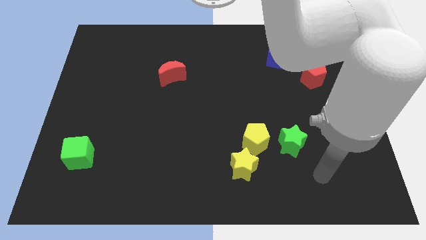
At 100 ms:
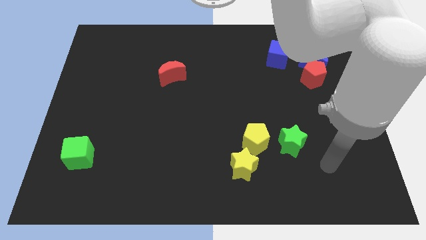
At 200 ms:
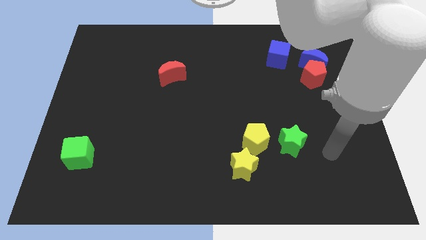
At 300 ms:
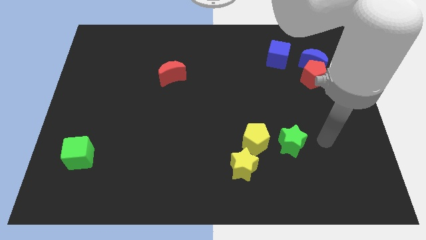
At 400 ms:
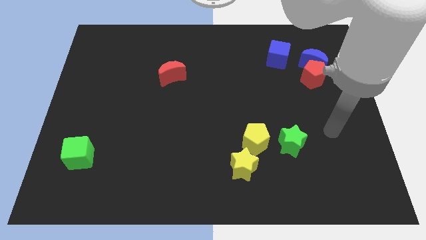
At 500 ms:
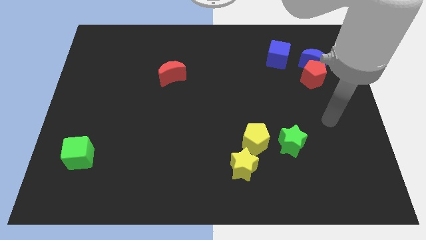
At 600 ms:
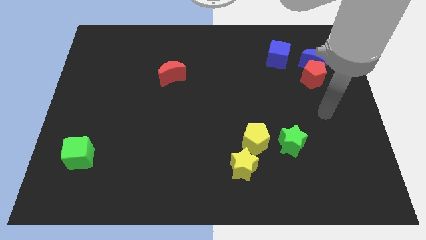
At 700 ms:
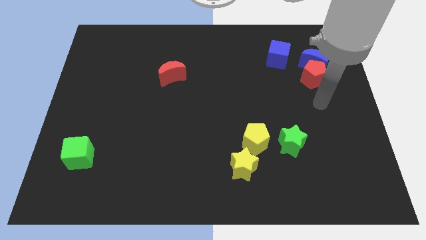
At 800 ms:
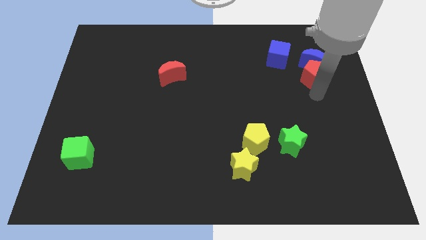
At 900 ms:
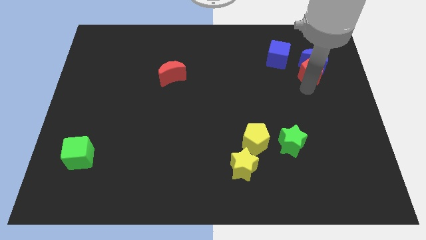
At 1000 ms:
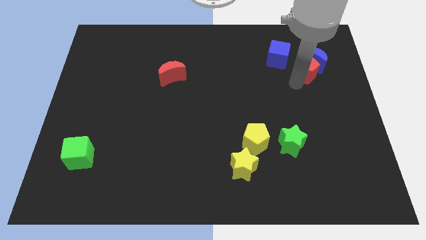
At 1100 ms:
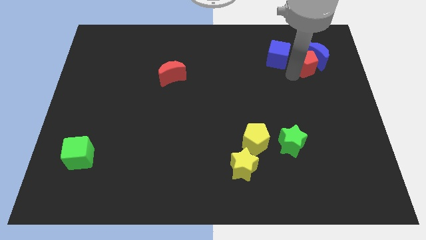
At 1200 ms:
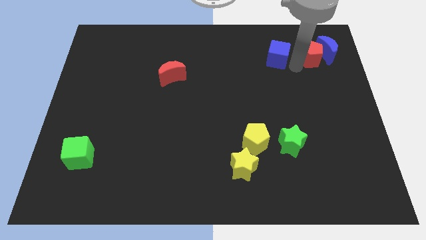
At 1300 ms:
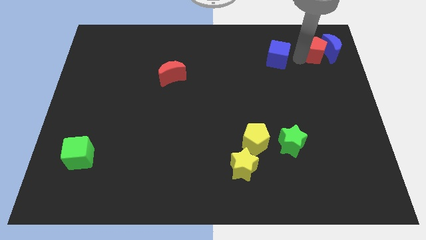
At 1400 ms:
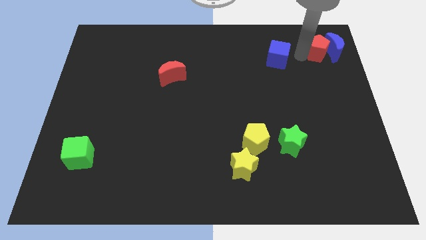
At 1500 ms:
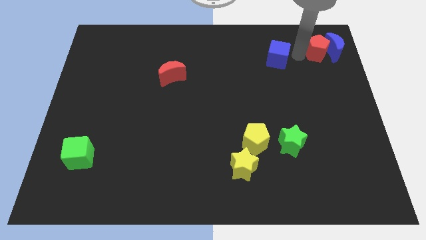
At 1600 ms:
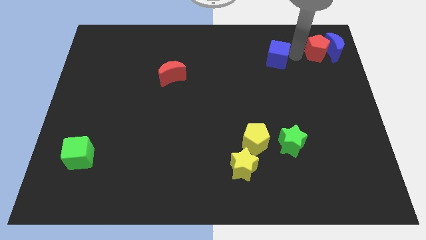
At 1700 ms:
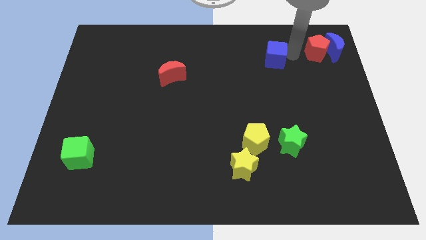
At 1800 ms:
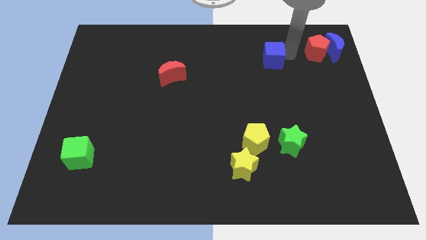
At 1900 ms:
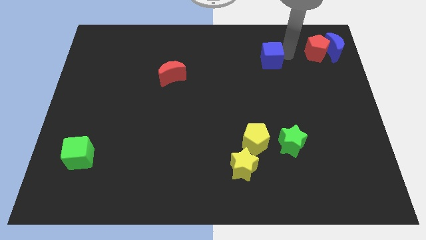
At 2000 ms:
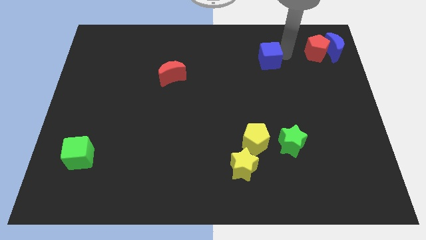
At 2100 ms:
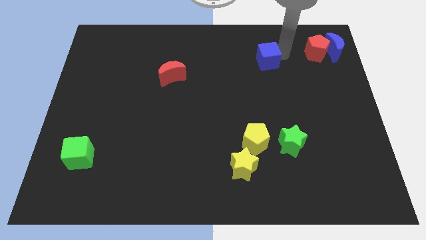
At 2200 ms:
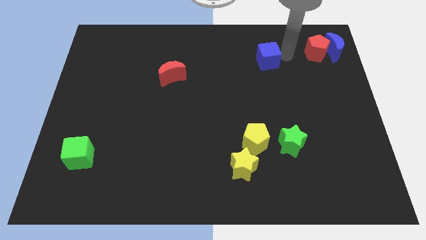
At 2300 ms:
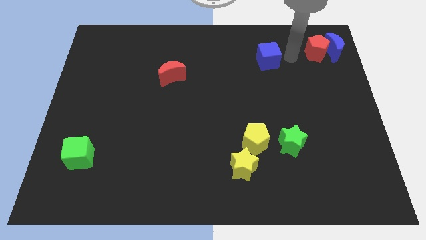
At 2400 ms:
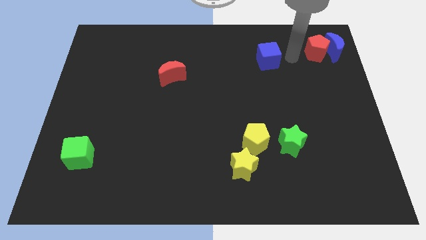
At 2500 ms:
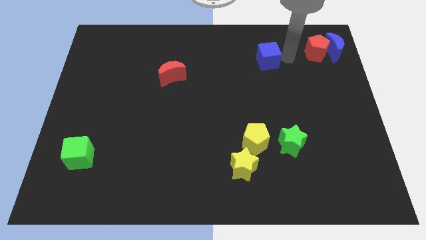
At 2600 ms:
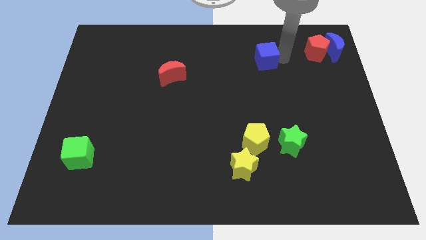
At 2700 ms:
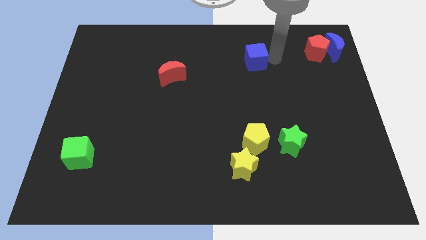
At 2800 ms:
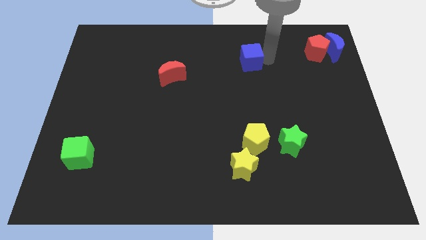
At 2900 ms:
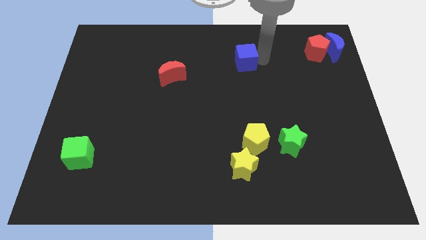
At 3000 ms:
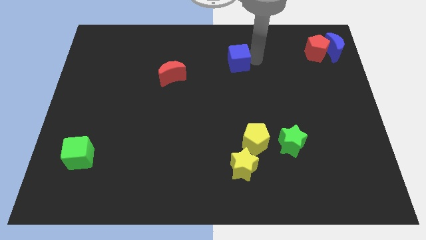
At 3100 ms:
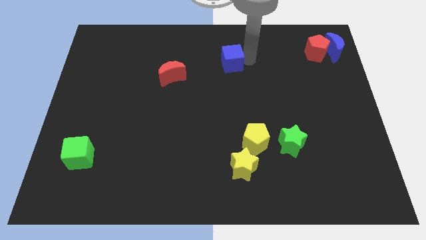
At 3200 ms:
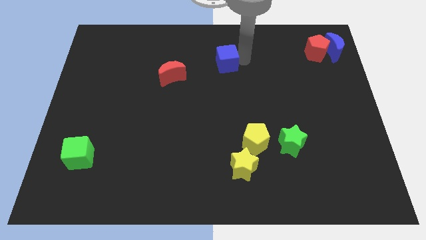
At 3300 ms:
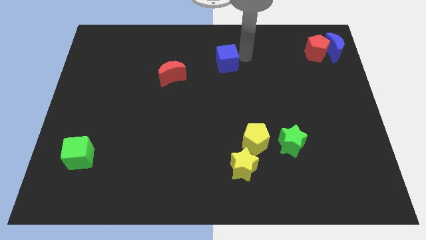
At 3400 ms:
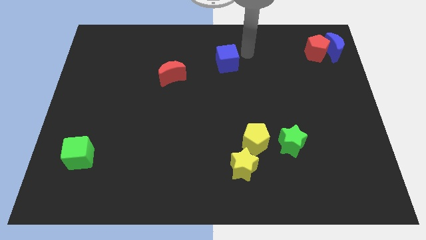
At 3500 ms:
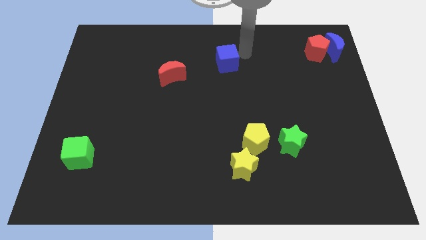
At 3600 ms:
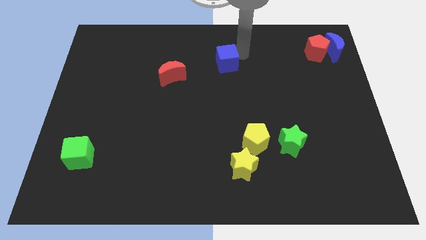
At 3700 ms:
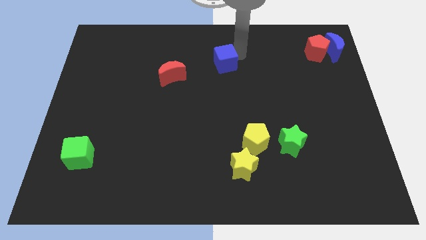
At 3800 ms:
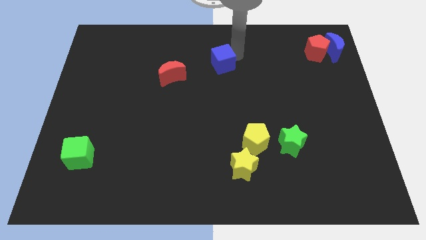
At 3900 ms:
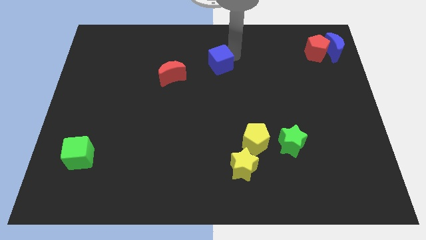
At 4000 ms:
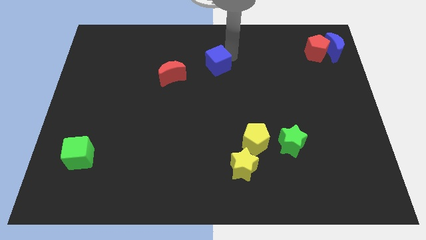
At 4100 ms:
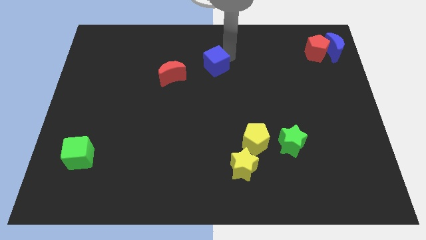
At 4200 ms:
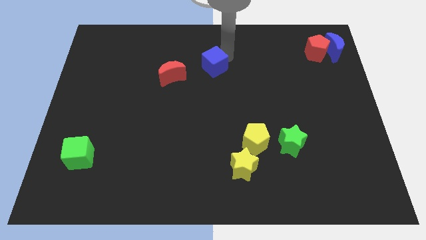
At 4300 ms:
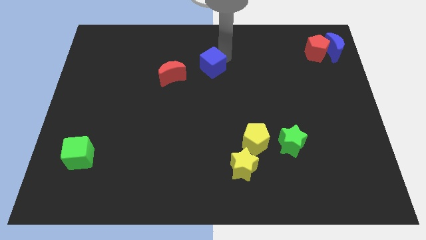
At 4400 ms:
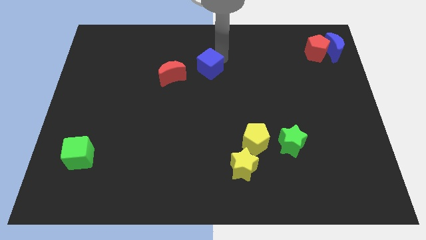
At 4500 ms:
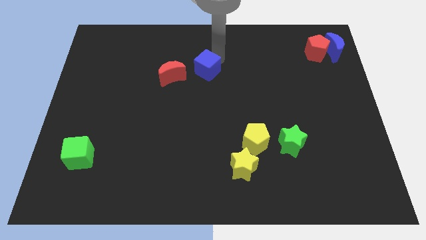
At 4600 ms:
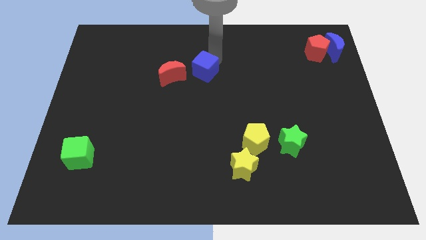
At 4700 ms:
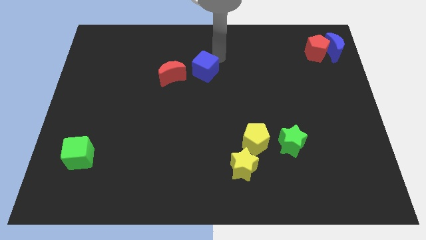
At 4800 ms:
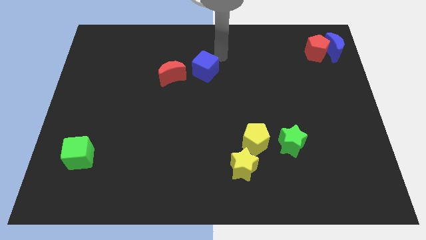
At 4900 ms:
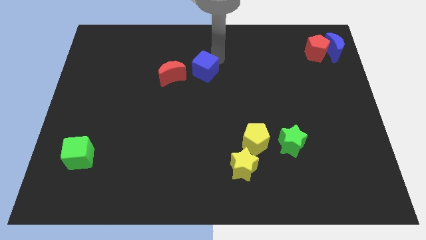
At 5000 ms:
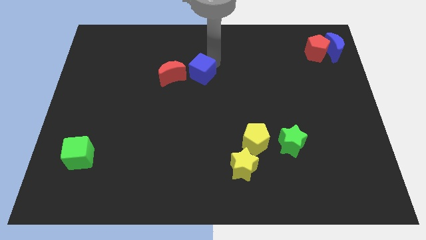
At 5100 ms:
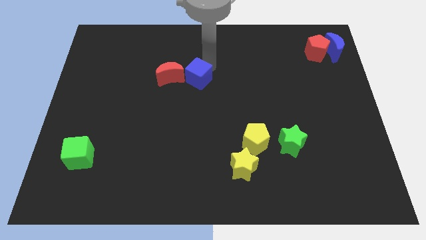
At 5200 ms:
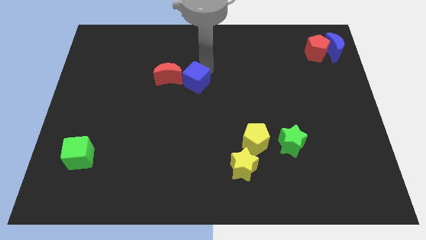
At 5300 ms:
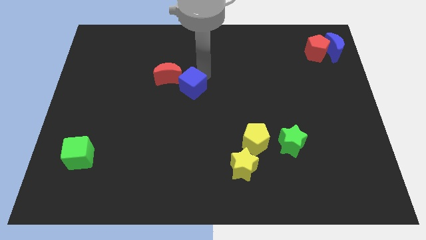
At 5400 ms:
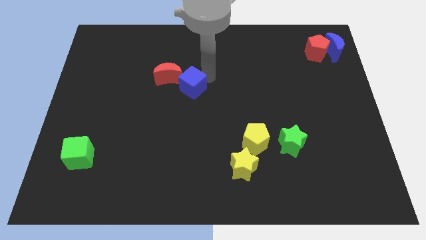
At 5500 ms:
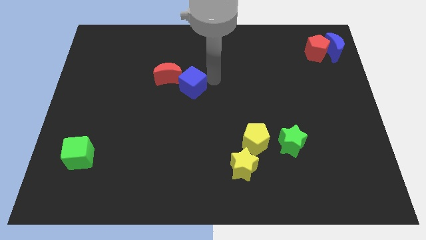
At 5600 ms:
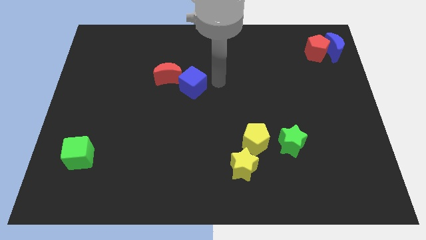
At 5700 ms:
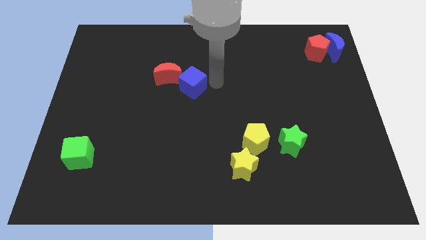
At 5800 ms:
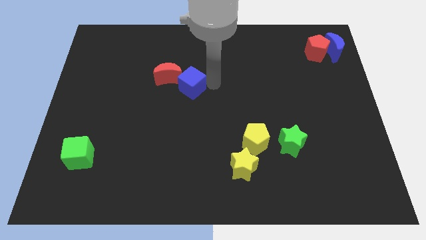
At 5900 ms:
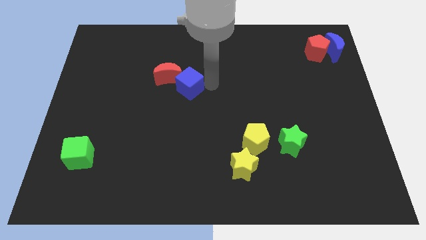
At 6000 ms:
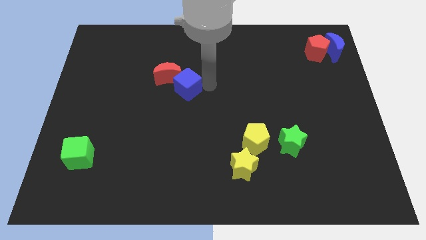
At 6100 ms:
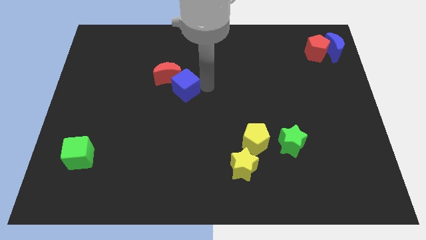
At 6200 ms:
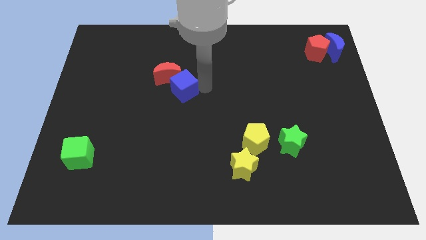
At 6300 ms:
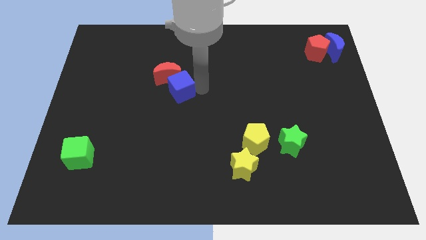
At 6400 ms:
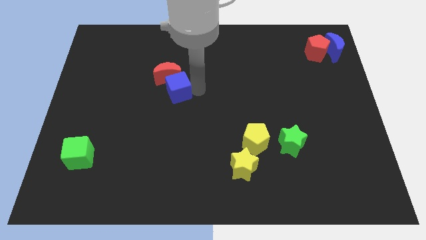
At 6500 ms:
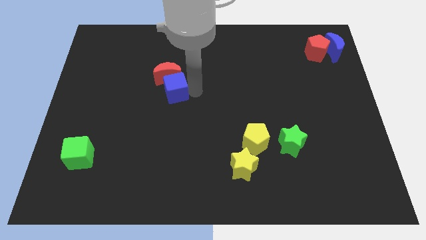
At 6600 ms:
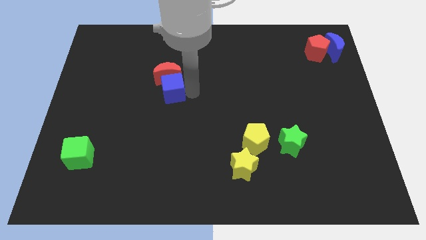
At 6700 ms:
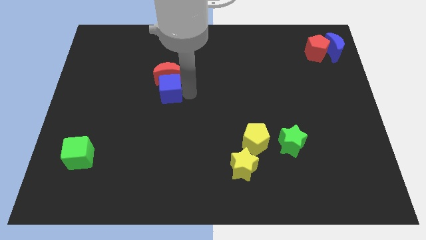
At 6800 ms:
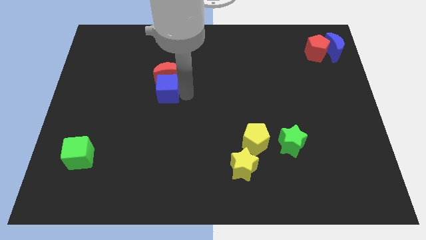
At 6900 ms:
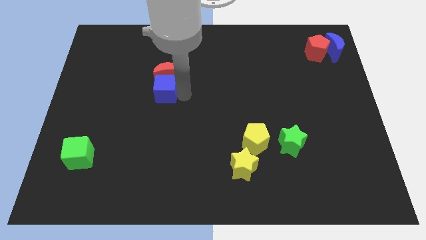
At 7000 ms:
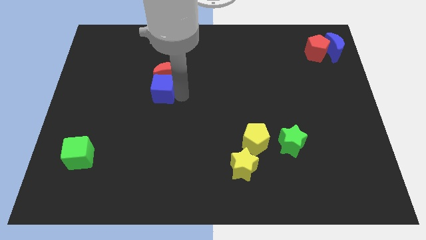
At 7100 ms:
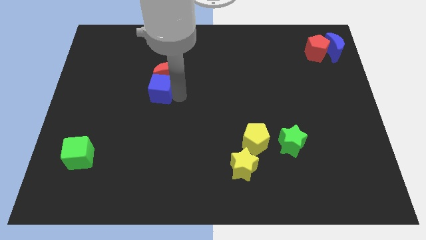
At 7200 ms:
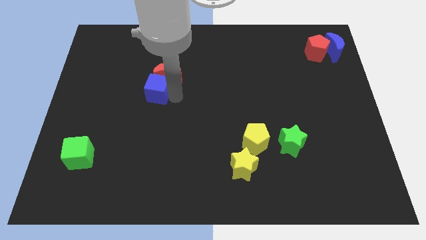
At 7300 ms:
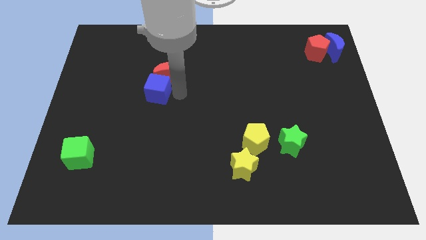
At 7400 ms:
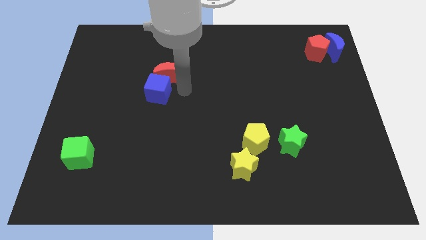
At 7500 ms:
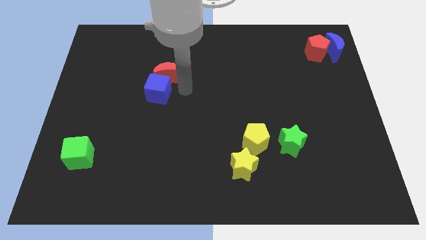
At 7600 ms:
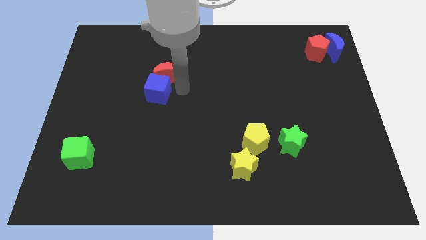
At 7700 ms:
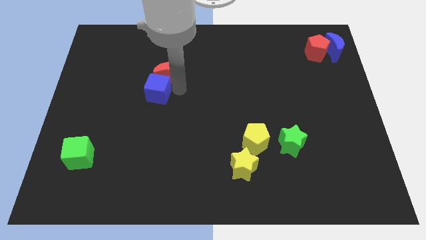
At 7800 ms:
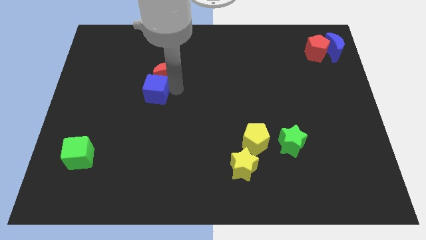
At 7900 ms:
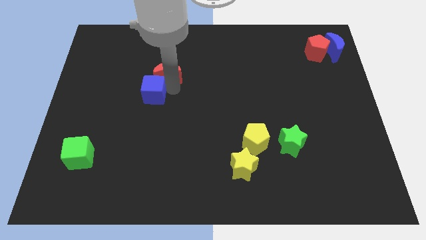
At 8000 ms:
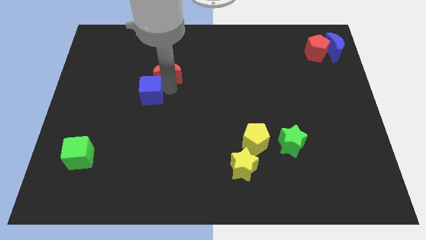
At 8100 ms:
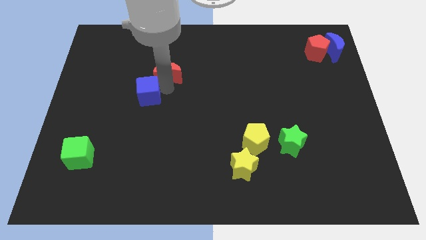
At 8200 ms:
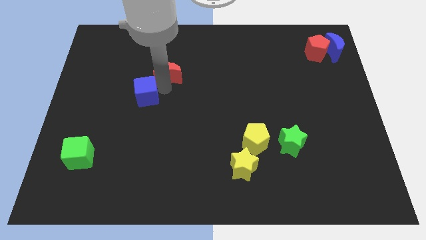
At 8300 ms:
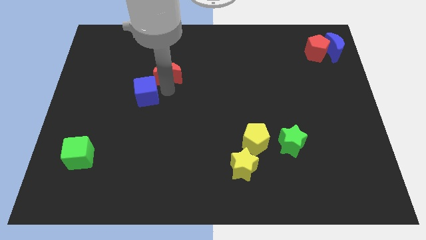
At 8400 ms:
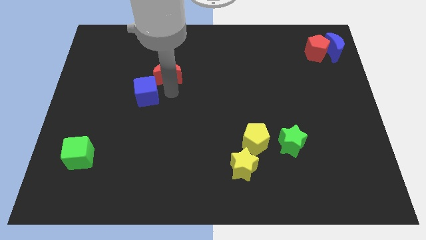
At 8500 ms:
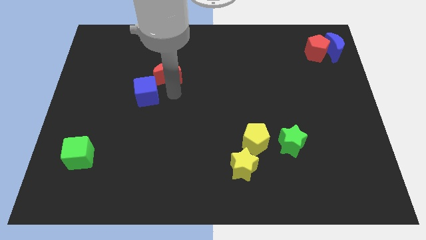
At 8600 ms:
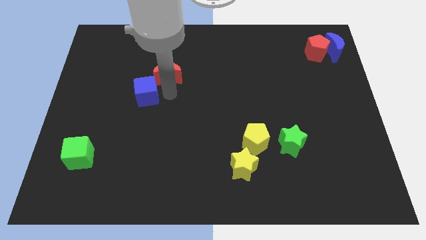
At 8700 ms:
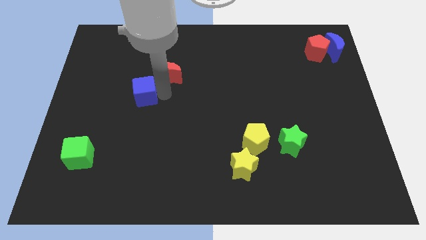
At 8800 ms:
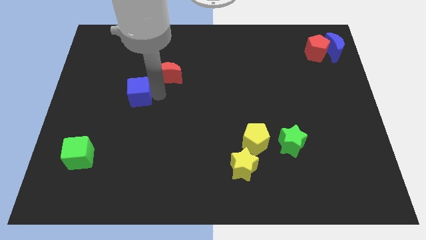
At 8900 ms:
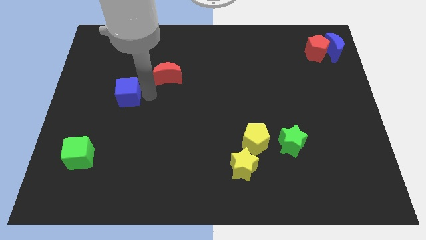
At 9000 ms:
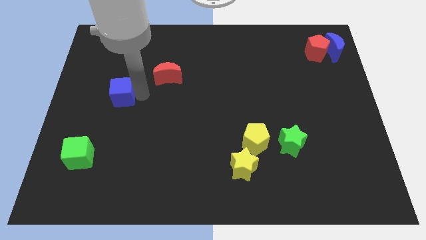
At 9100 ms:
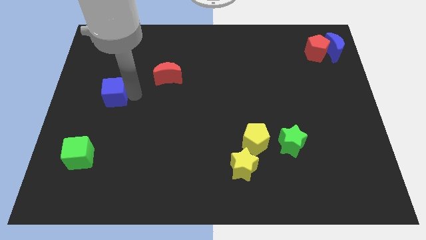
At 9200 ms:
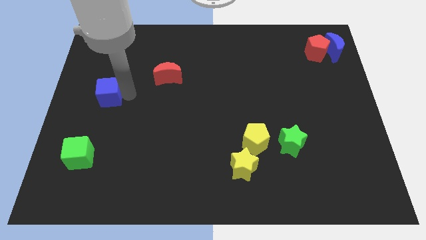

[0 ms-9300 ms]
push the blue cube to the left side of the board
